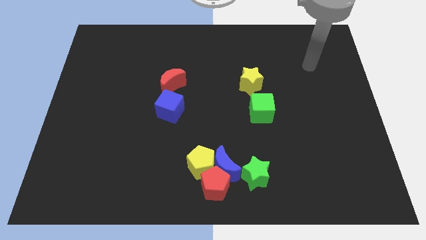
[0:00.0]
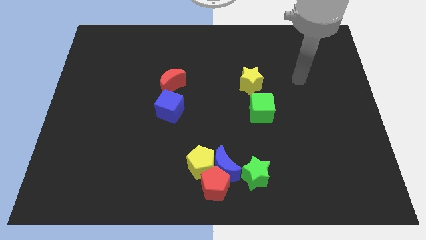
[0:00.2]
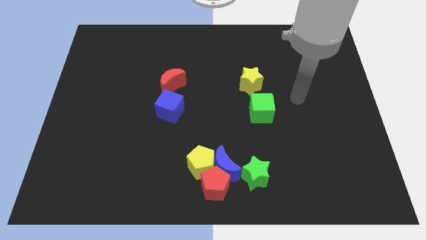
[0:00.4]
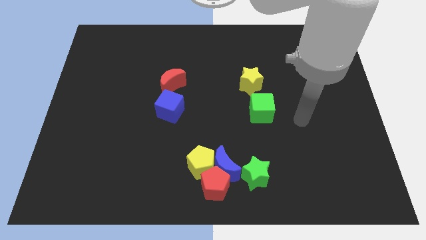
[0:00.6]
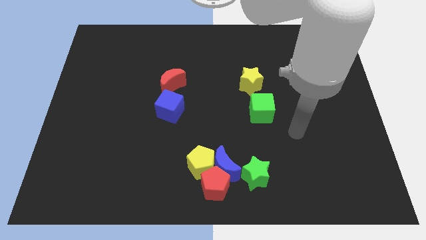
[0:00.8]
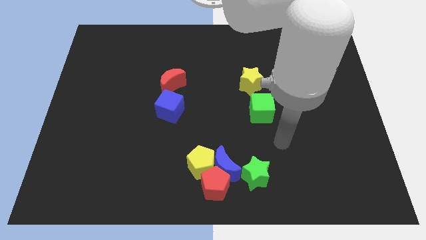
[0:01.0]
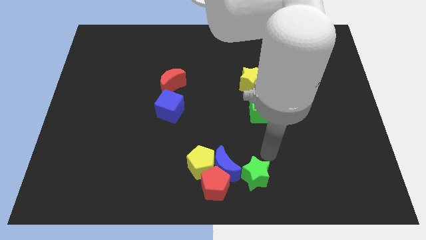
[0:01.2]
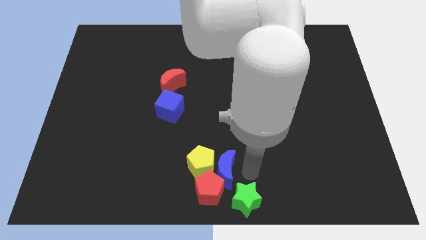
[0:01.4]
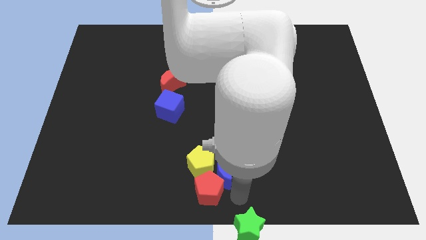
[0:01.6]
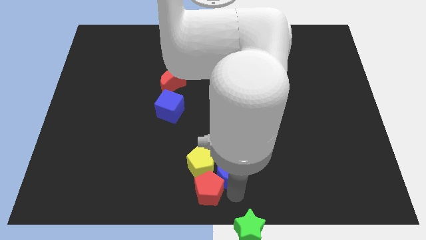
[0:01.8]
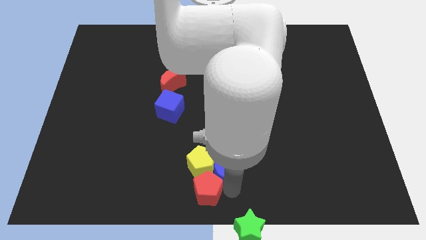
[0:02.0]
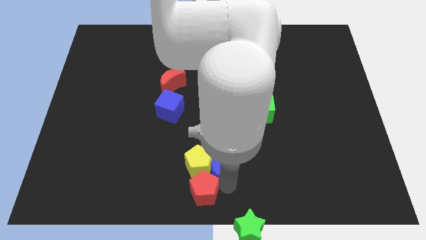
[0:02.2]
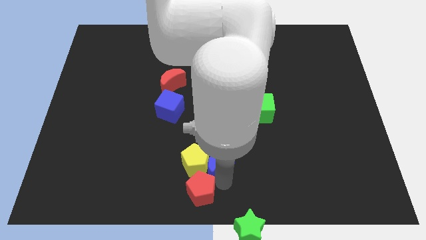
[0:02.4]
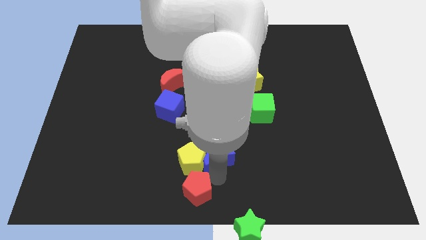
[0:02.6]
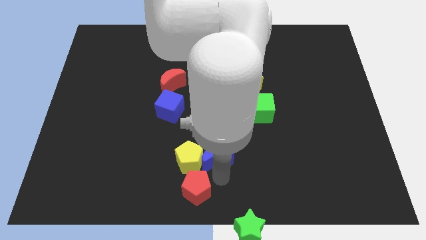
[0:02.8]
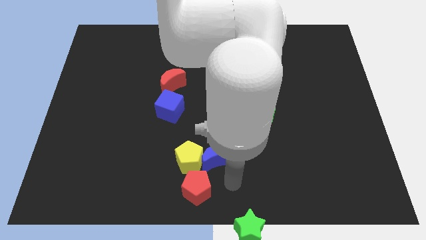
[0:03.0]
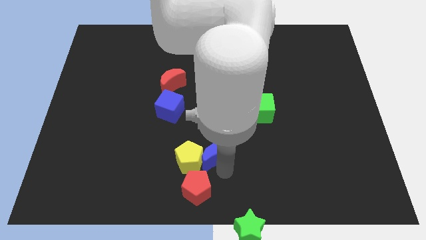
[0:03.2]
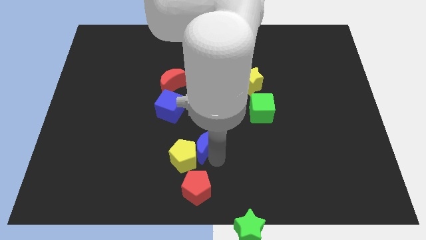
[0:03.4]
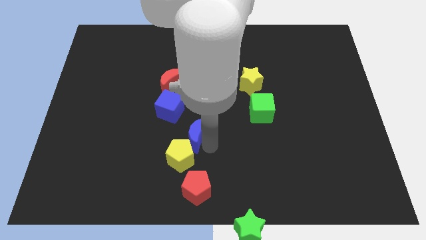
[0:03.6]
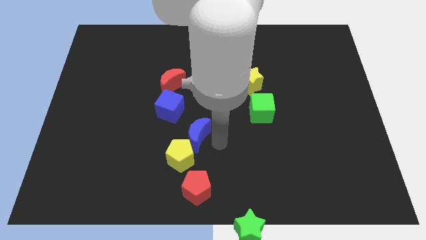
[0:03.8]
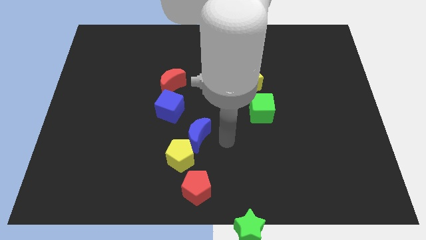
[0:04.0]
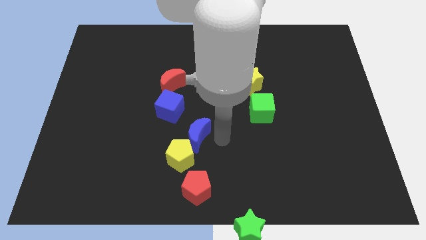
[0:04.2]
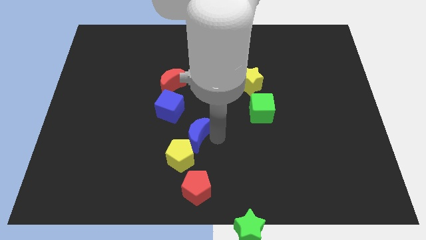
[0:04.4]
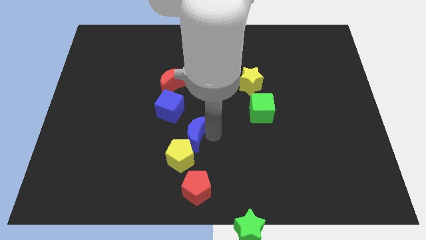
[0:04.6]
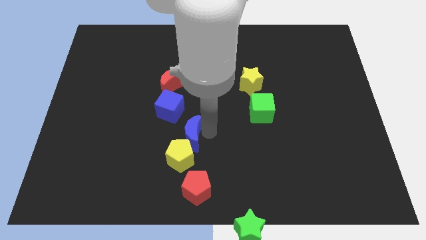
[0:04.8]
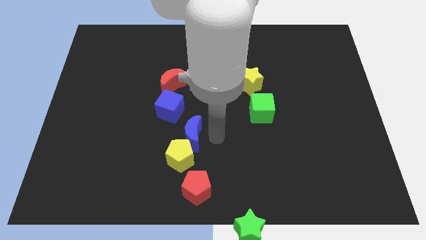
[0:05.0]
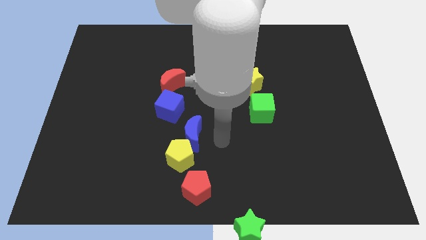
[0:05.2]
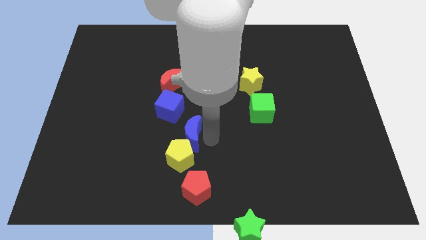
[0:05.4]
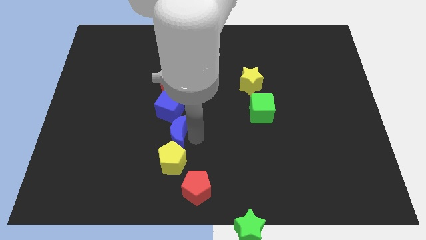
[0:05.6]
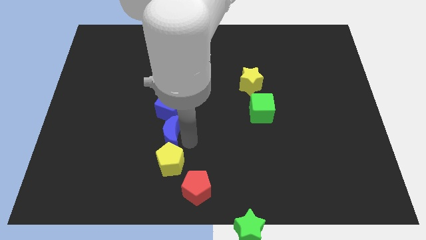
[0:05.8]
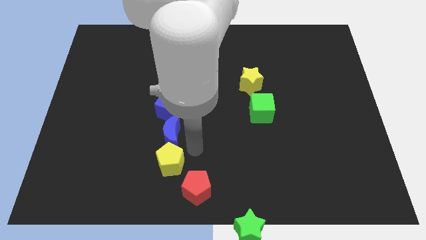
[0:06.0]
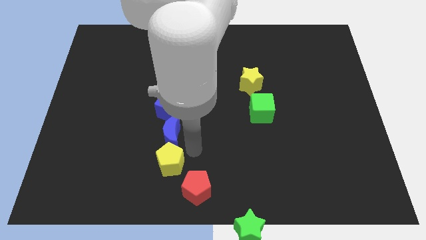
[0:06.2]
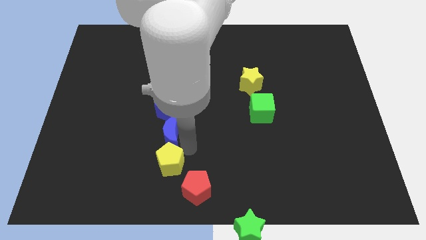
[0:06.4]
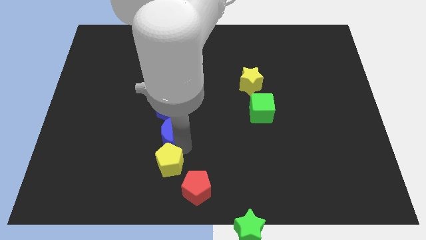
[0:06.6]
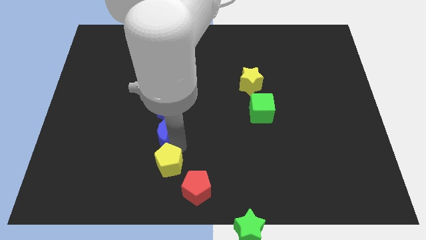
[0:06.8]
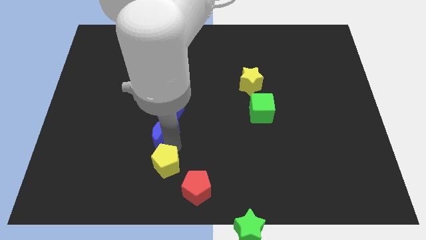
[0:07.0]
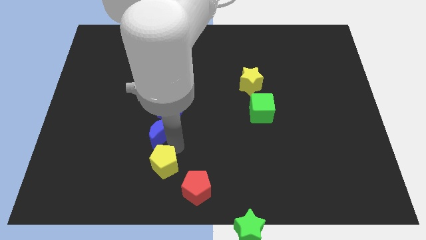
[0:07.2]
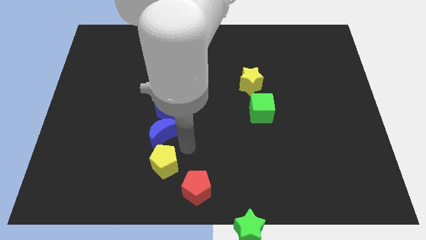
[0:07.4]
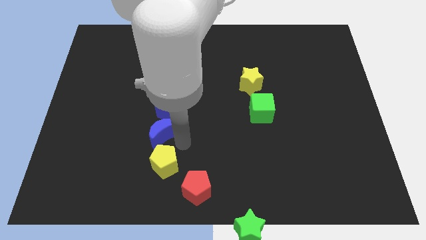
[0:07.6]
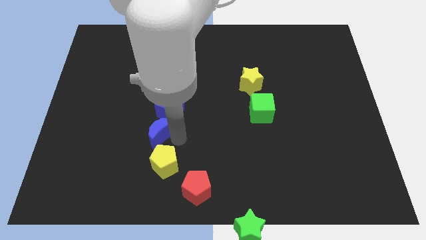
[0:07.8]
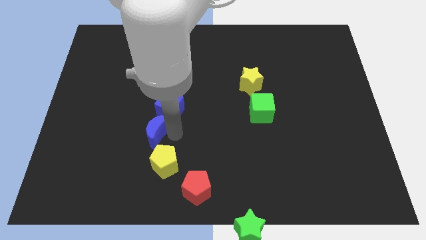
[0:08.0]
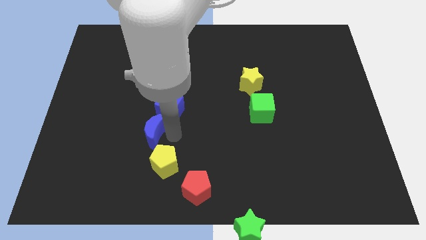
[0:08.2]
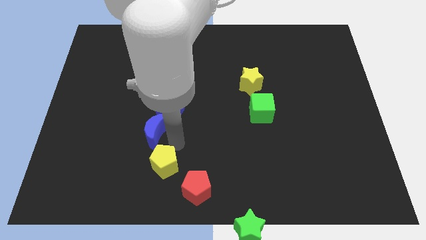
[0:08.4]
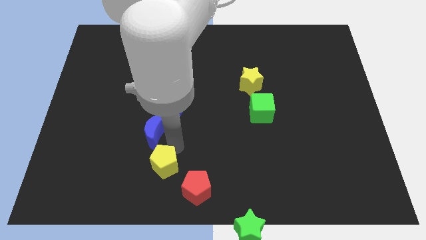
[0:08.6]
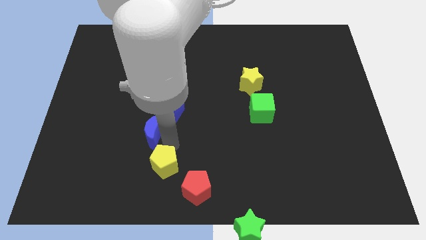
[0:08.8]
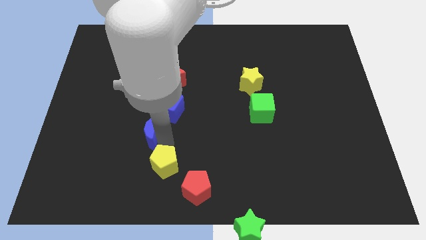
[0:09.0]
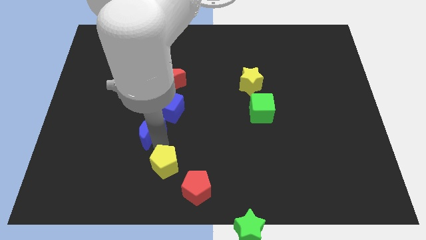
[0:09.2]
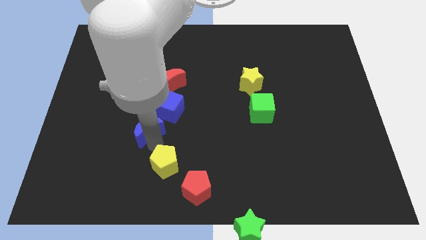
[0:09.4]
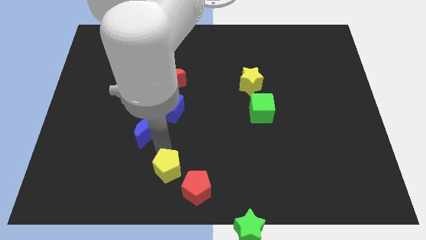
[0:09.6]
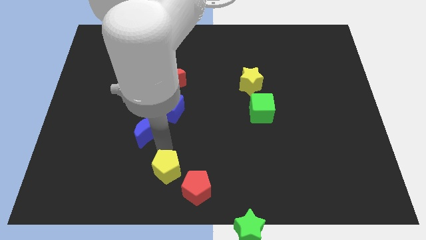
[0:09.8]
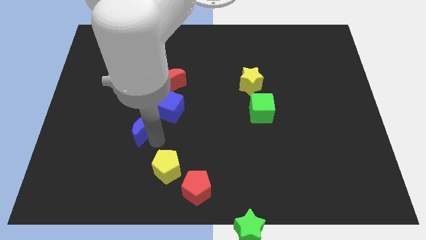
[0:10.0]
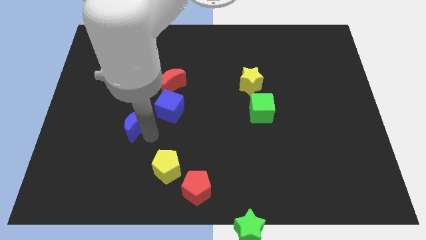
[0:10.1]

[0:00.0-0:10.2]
slide the blue moon just left of the blue cube

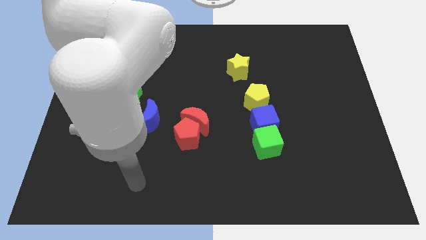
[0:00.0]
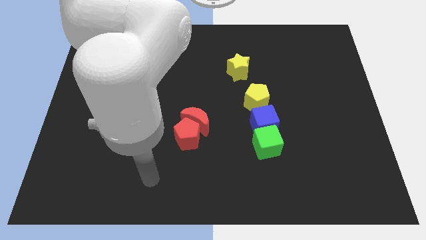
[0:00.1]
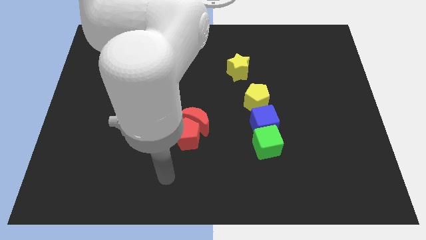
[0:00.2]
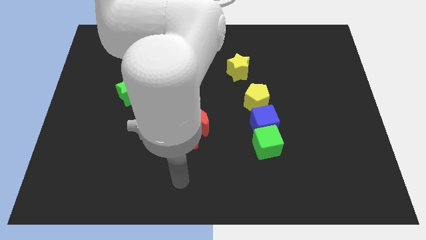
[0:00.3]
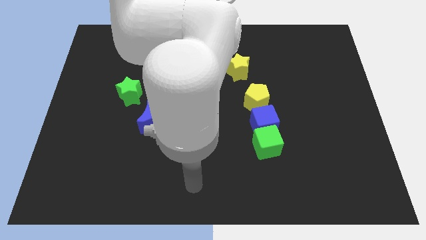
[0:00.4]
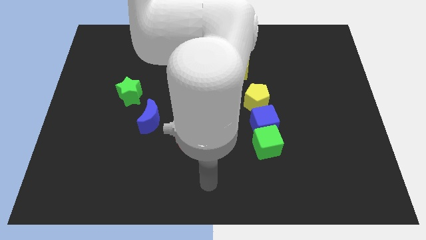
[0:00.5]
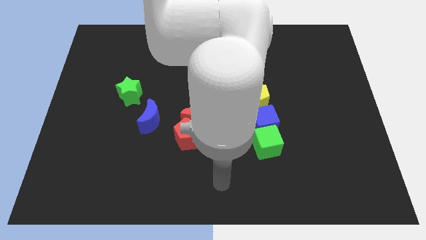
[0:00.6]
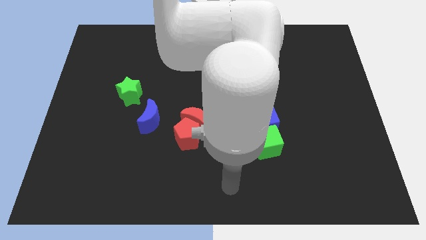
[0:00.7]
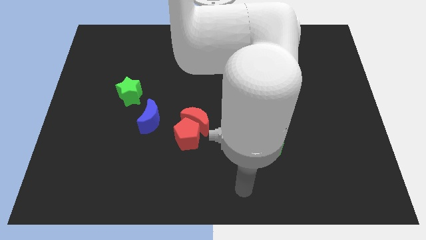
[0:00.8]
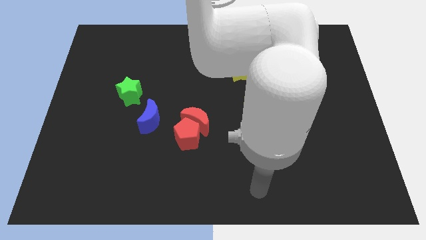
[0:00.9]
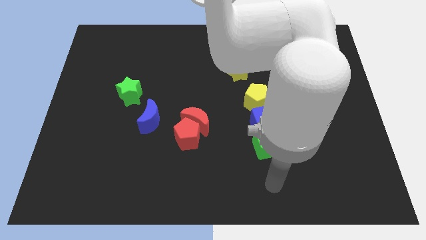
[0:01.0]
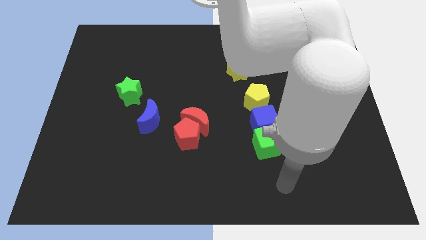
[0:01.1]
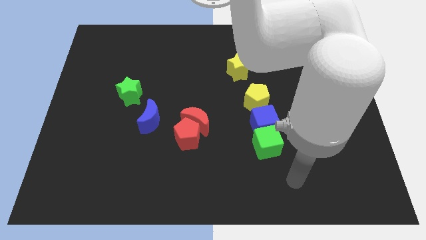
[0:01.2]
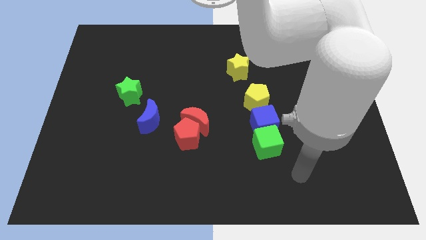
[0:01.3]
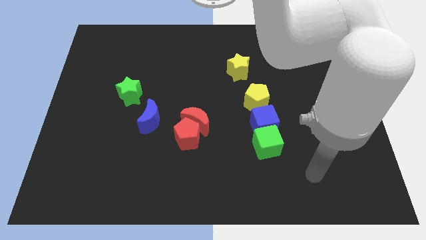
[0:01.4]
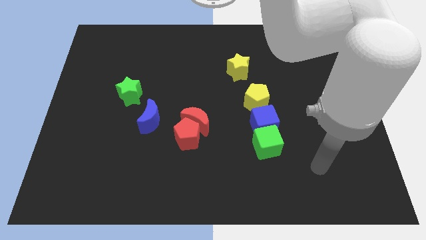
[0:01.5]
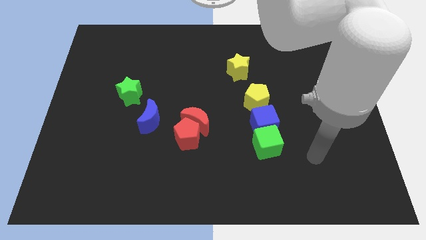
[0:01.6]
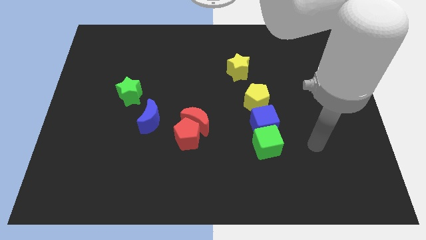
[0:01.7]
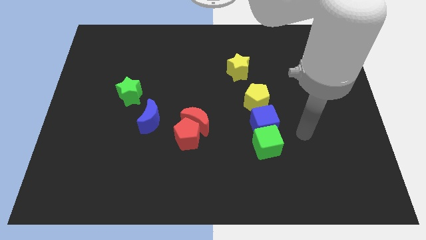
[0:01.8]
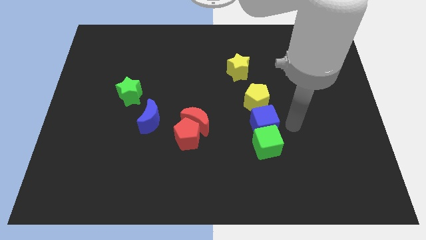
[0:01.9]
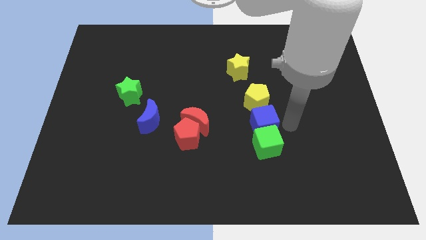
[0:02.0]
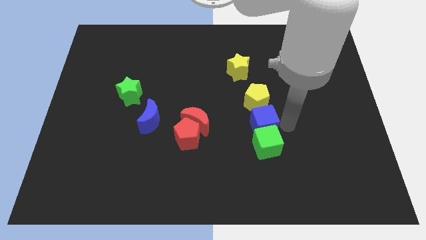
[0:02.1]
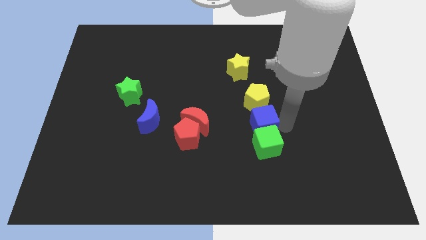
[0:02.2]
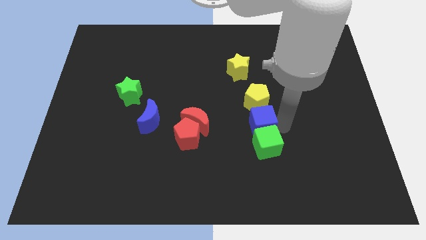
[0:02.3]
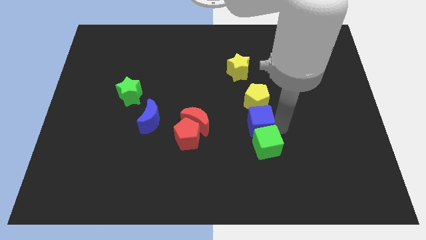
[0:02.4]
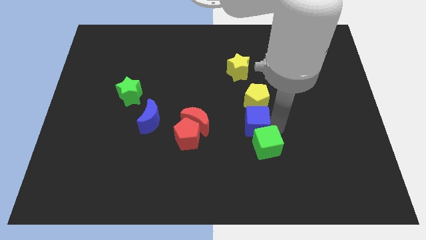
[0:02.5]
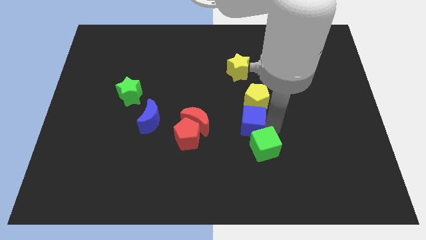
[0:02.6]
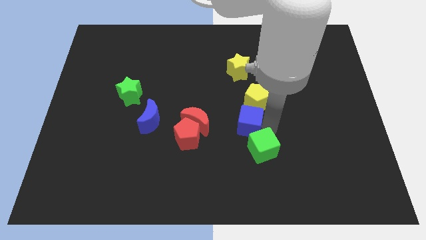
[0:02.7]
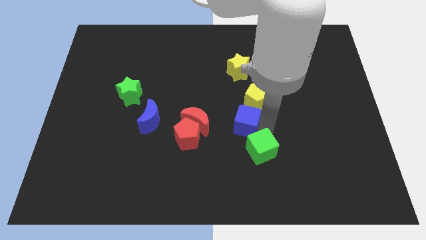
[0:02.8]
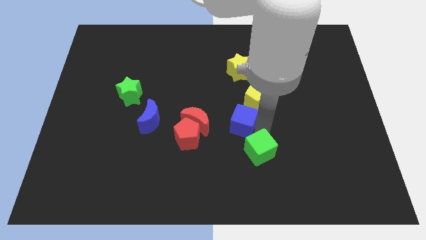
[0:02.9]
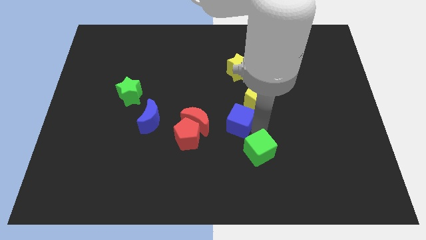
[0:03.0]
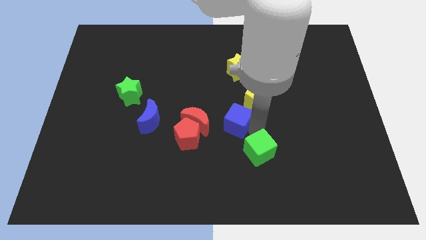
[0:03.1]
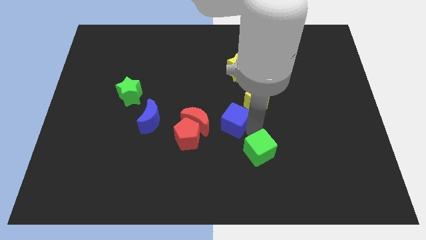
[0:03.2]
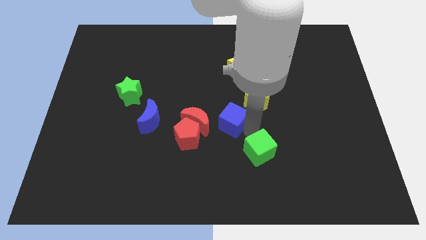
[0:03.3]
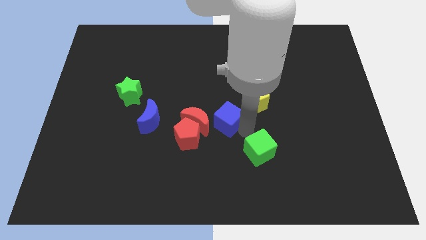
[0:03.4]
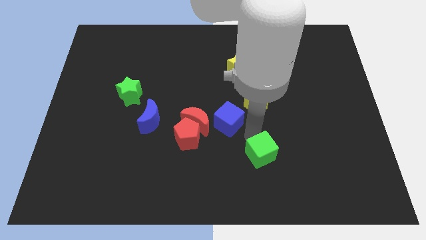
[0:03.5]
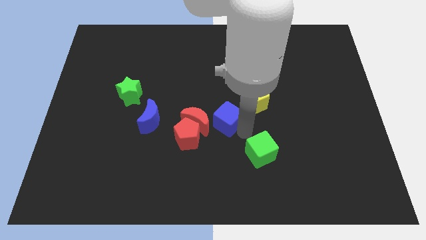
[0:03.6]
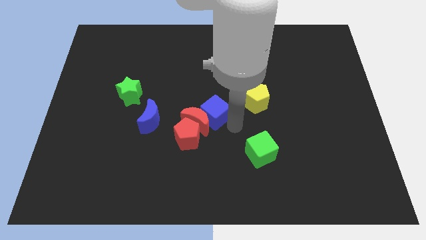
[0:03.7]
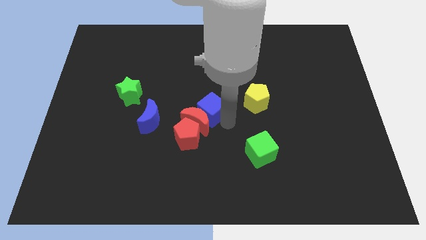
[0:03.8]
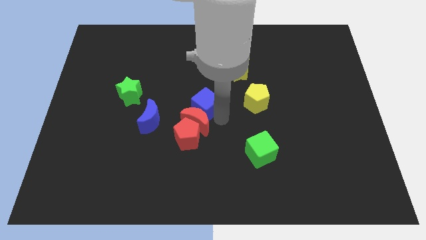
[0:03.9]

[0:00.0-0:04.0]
slide the blue cube to the top left side of the red moon
